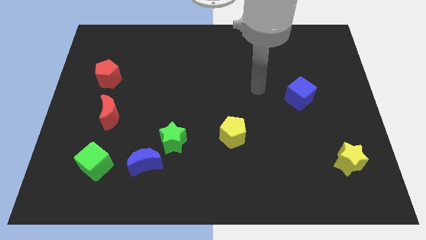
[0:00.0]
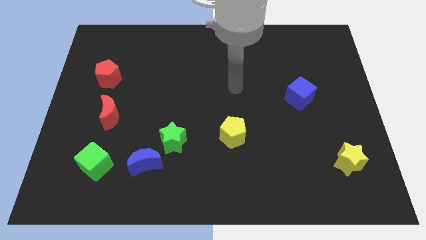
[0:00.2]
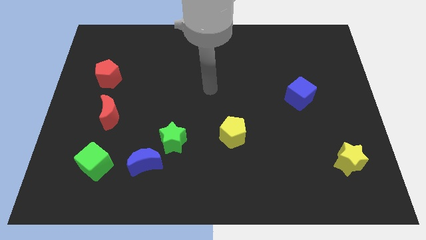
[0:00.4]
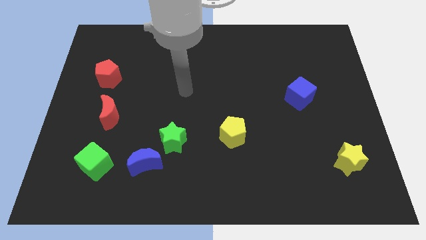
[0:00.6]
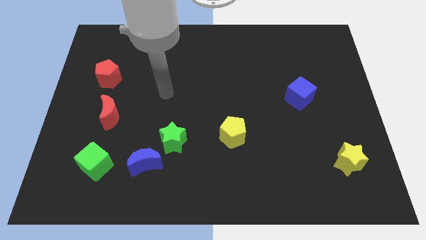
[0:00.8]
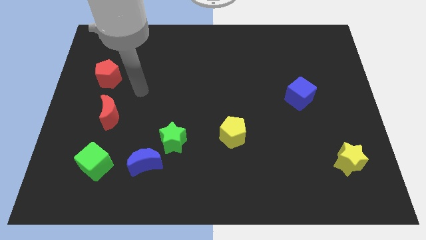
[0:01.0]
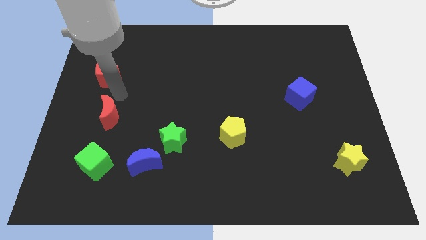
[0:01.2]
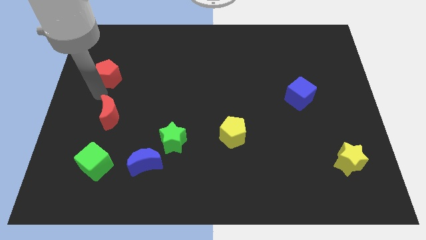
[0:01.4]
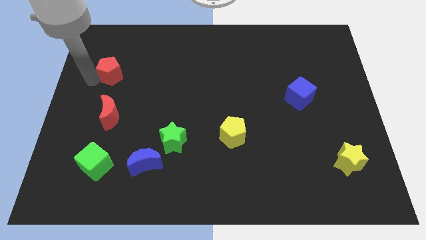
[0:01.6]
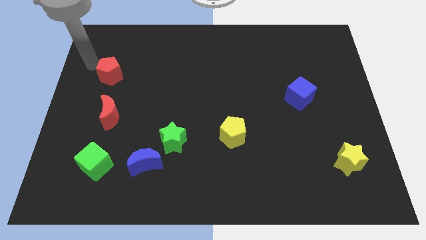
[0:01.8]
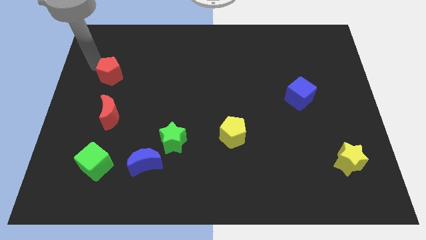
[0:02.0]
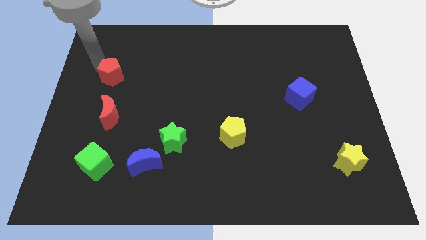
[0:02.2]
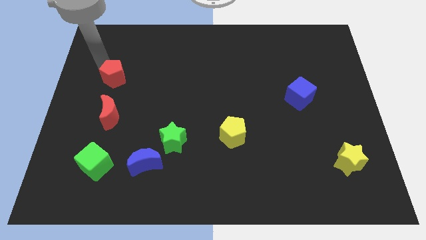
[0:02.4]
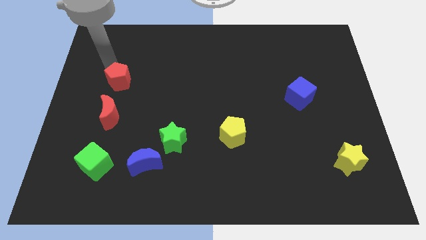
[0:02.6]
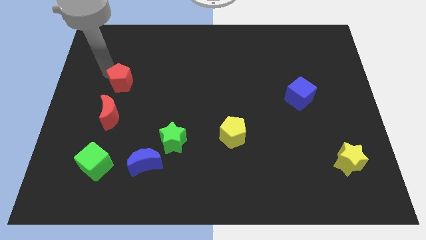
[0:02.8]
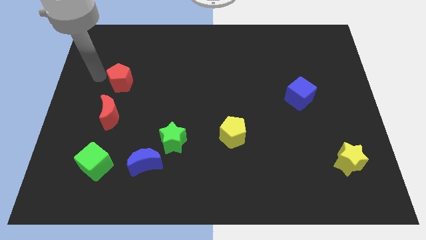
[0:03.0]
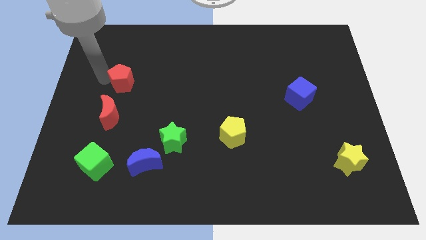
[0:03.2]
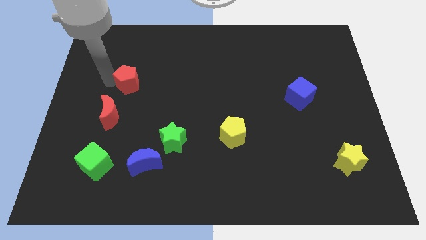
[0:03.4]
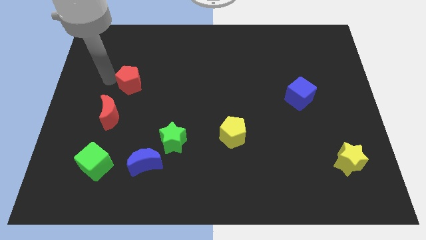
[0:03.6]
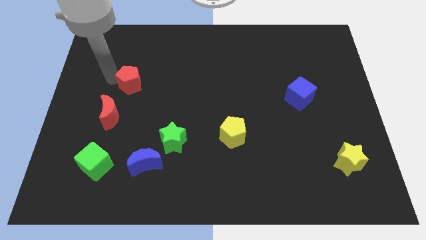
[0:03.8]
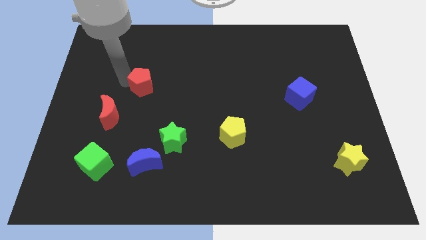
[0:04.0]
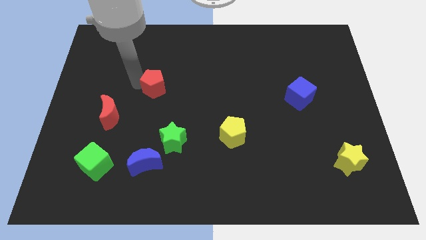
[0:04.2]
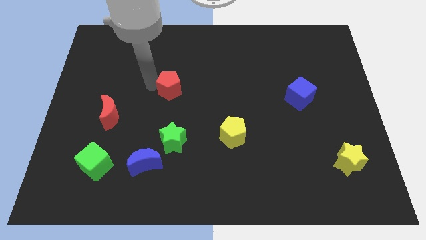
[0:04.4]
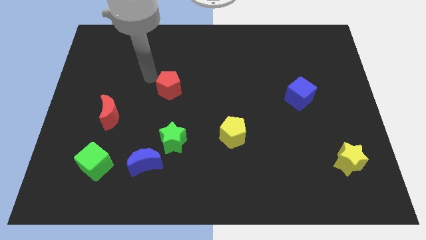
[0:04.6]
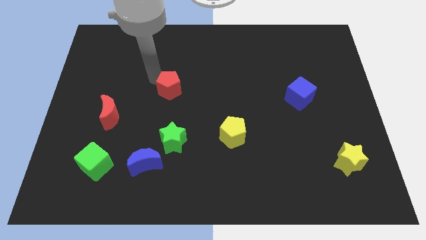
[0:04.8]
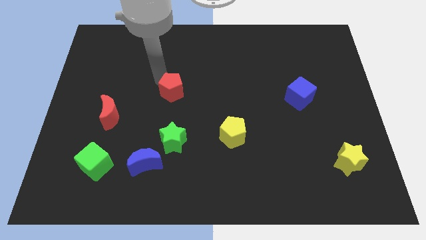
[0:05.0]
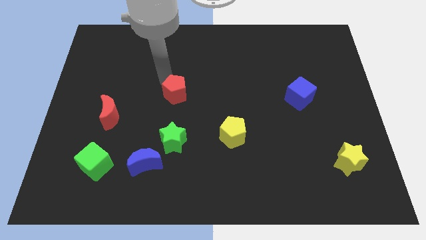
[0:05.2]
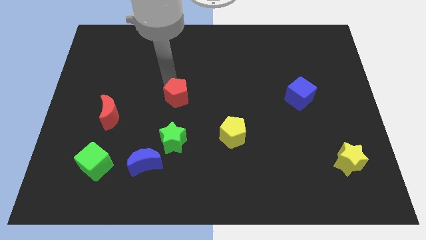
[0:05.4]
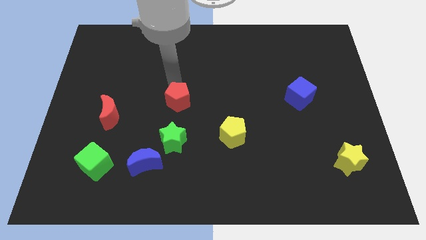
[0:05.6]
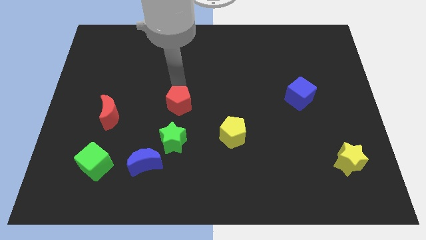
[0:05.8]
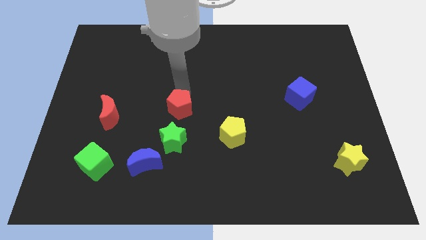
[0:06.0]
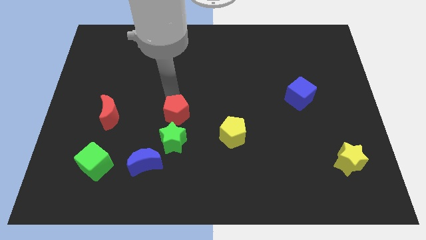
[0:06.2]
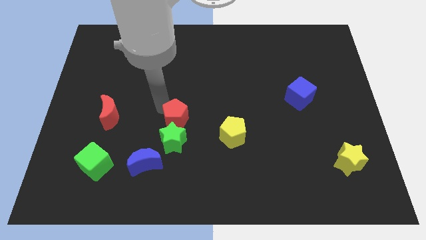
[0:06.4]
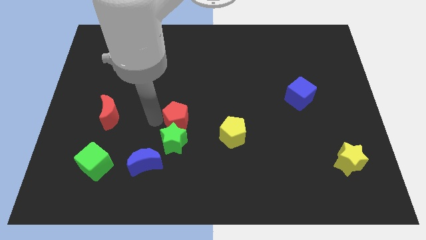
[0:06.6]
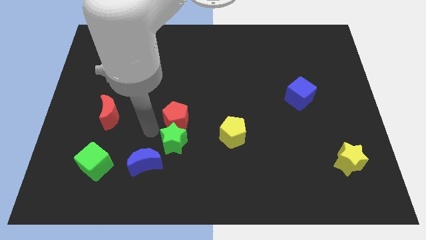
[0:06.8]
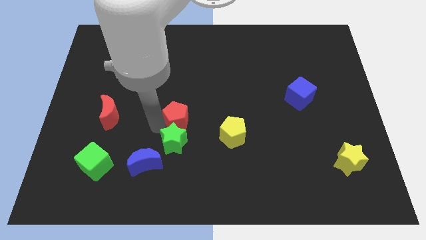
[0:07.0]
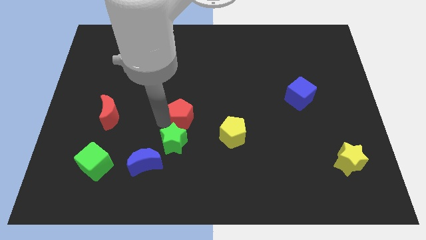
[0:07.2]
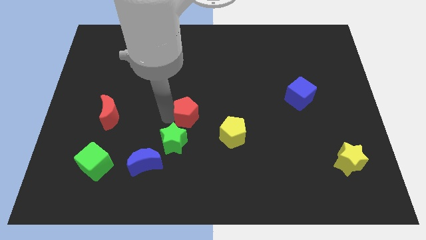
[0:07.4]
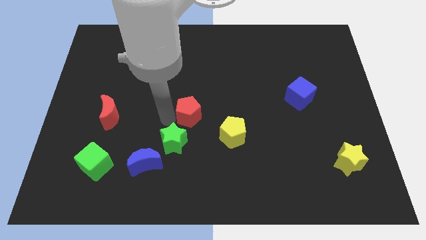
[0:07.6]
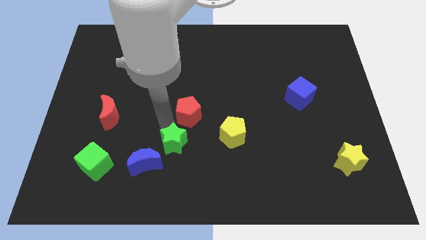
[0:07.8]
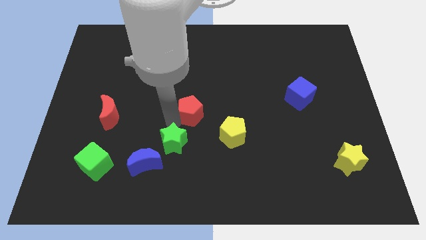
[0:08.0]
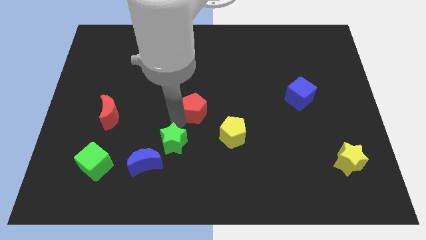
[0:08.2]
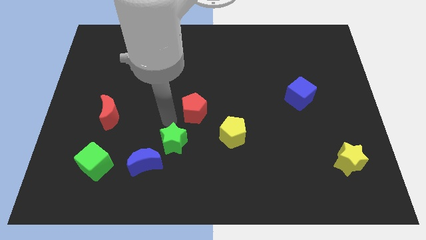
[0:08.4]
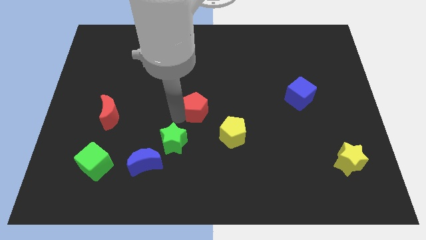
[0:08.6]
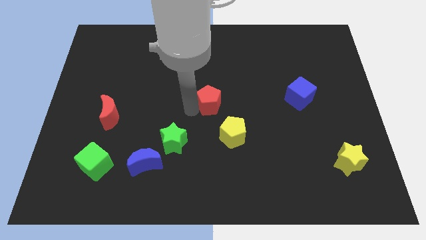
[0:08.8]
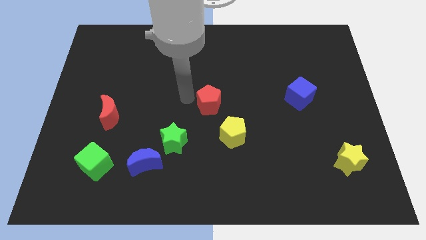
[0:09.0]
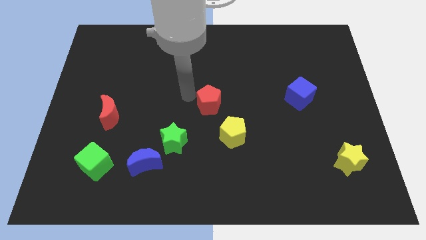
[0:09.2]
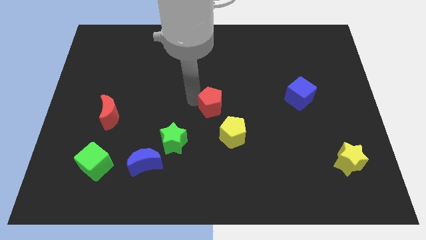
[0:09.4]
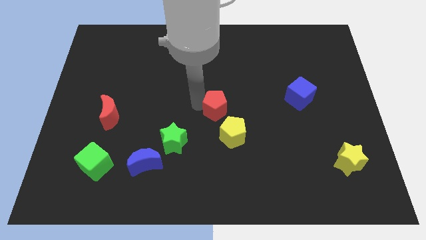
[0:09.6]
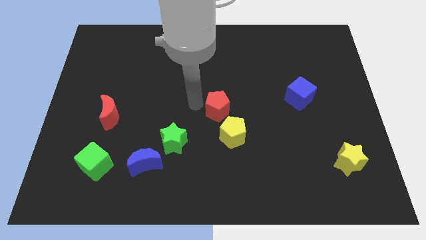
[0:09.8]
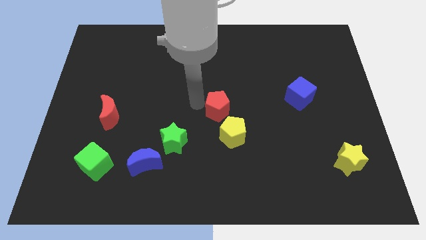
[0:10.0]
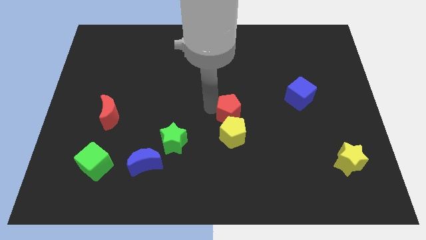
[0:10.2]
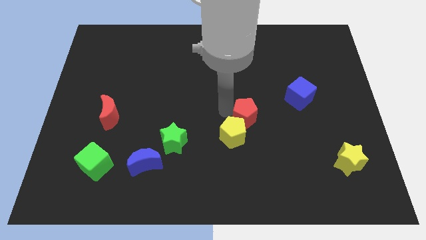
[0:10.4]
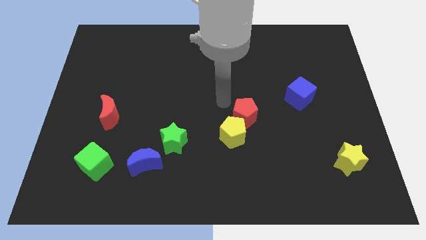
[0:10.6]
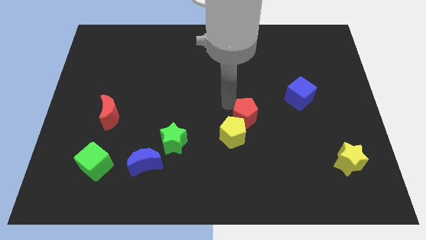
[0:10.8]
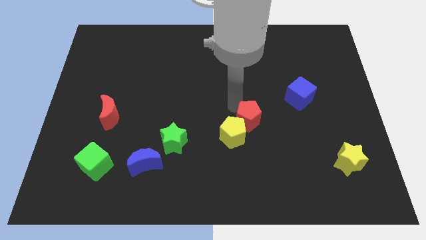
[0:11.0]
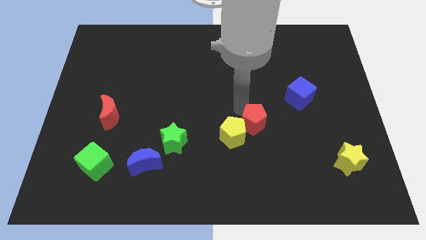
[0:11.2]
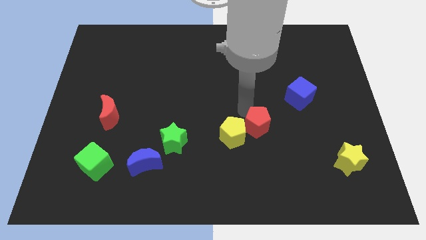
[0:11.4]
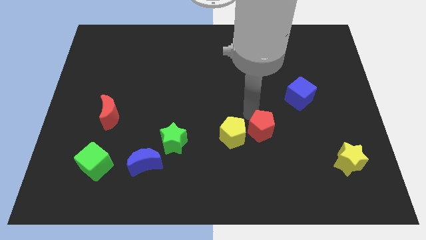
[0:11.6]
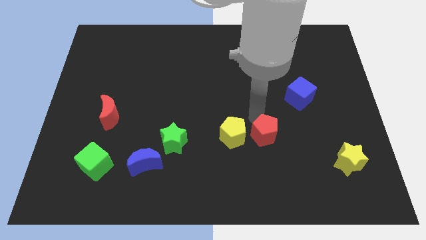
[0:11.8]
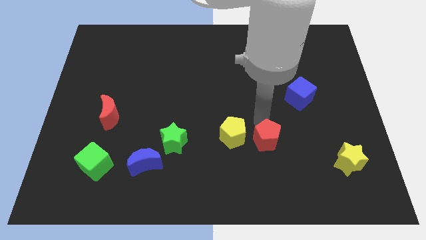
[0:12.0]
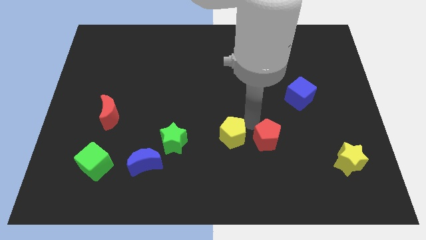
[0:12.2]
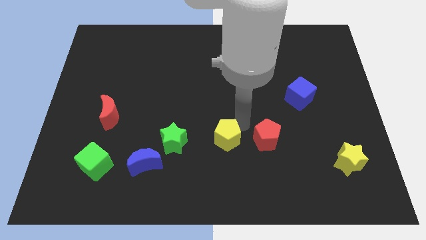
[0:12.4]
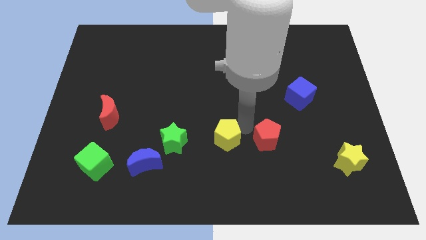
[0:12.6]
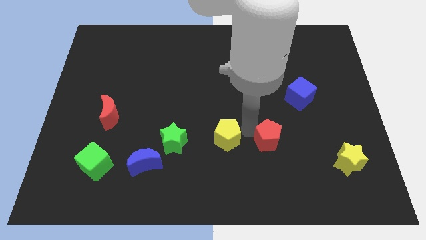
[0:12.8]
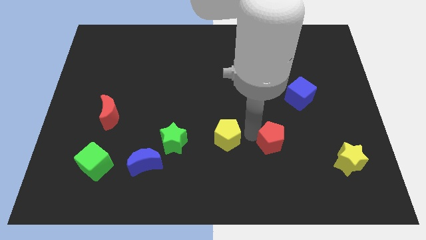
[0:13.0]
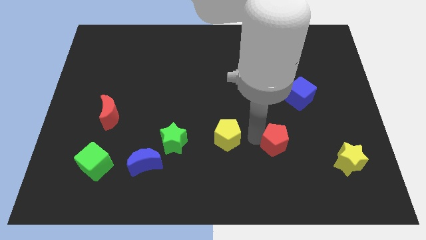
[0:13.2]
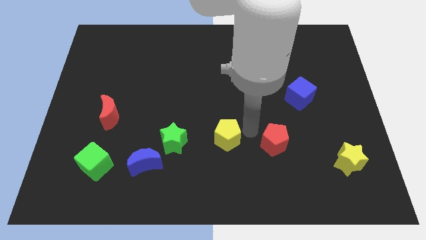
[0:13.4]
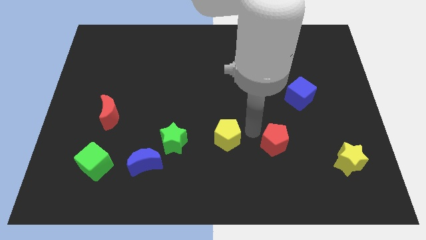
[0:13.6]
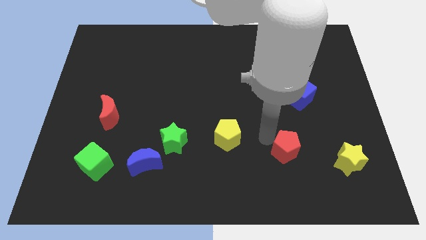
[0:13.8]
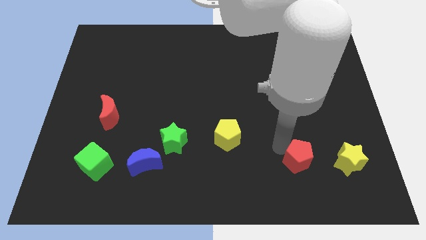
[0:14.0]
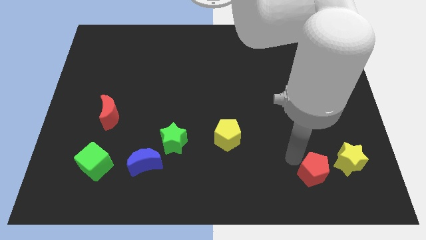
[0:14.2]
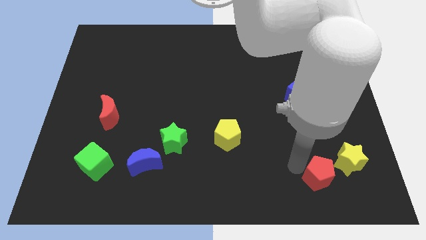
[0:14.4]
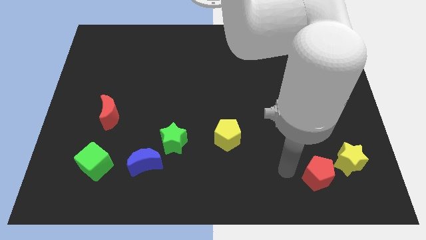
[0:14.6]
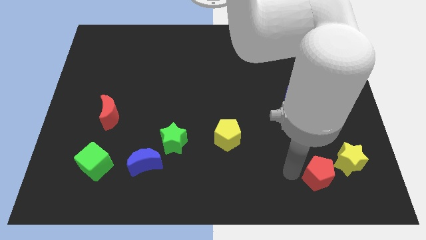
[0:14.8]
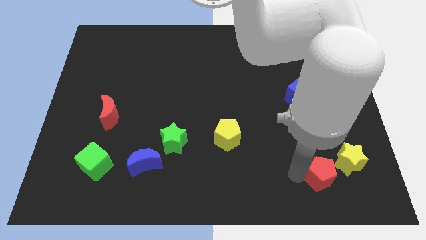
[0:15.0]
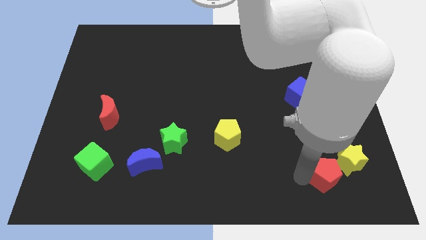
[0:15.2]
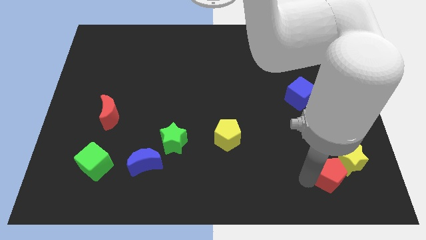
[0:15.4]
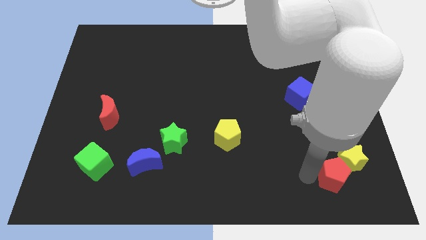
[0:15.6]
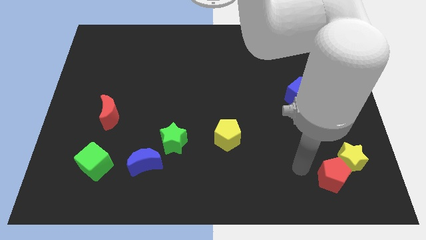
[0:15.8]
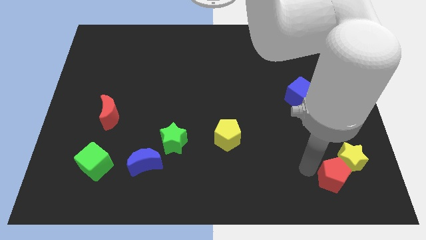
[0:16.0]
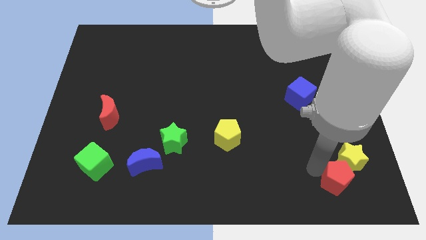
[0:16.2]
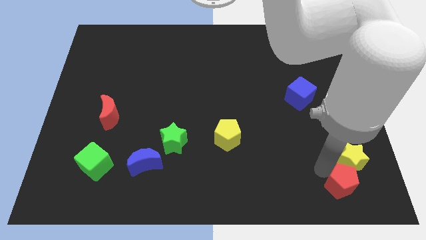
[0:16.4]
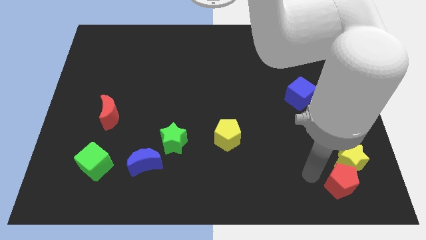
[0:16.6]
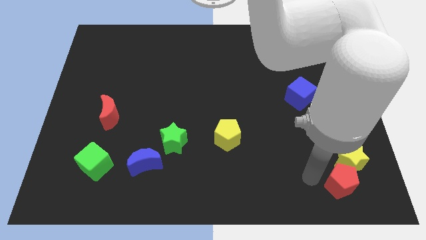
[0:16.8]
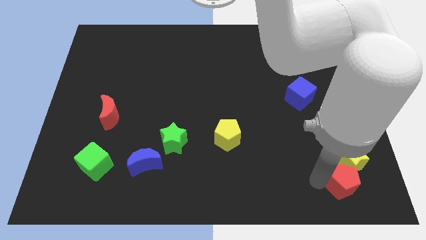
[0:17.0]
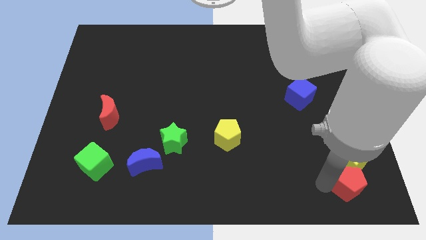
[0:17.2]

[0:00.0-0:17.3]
push the red pentagon to the bottom right corner
